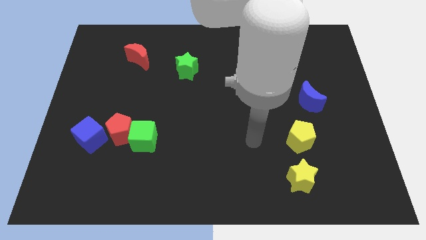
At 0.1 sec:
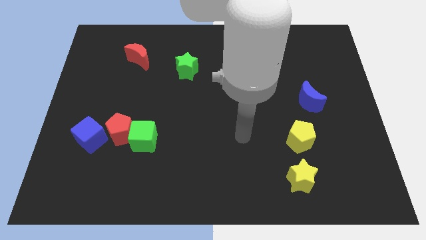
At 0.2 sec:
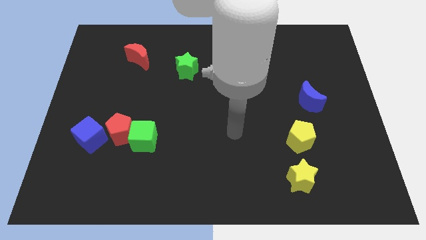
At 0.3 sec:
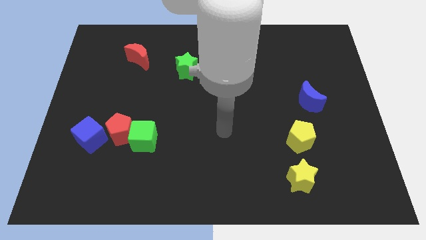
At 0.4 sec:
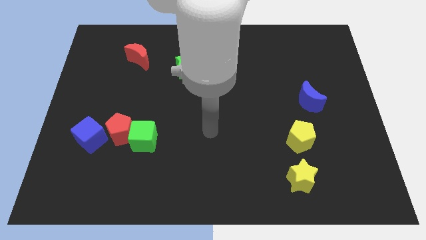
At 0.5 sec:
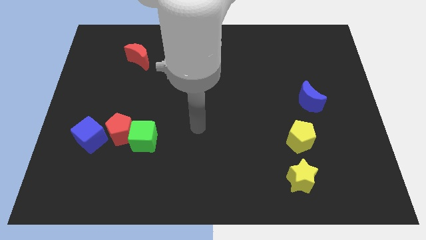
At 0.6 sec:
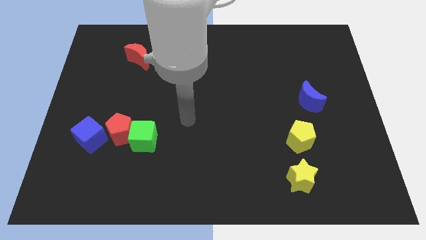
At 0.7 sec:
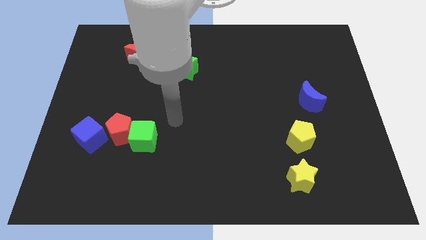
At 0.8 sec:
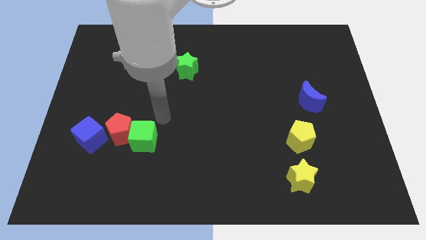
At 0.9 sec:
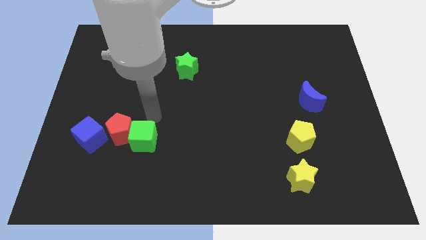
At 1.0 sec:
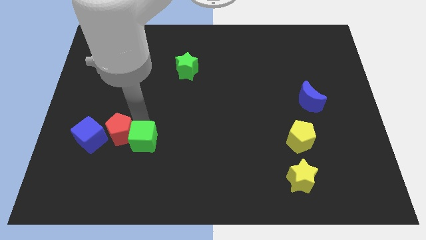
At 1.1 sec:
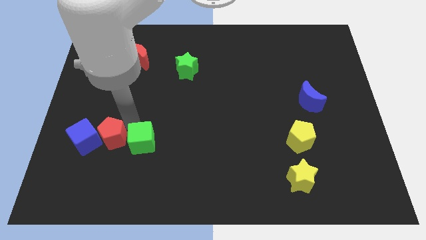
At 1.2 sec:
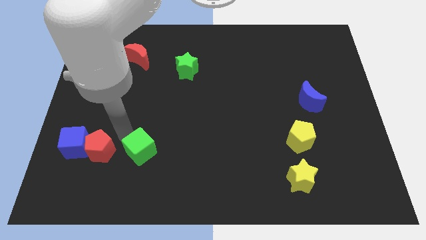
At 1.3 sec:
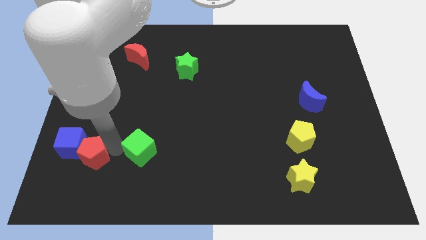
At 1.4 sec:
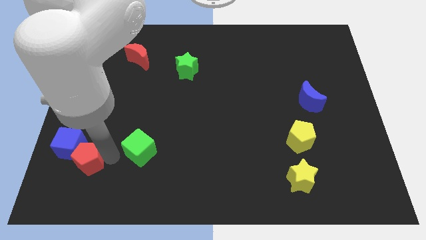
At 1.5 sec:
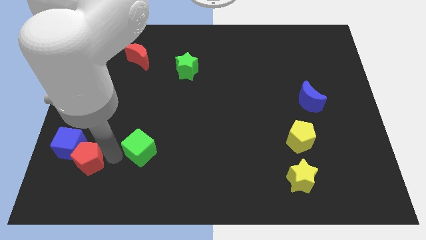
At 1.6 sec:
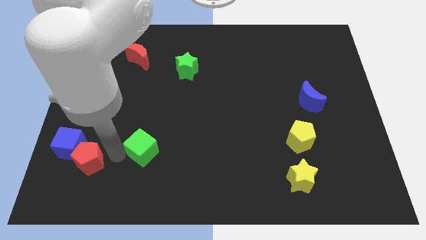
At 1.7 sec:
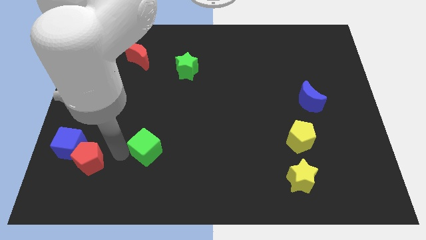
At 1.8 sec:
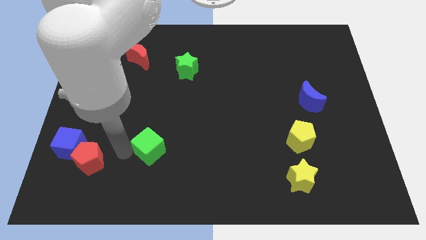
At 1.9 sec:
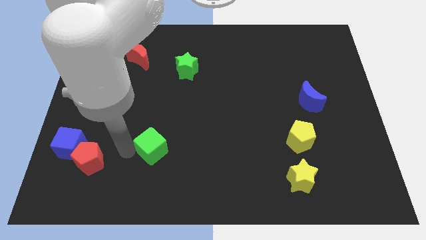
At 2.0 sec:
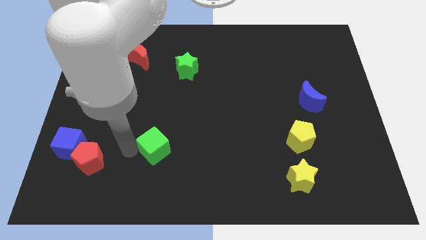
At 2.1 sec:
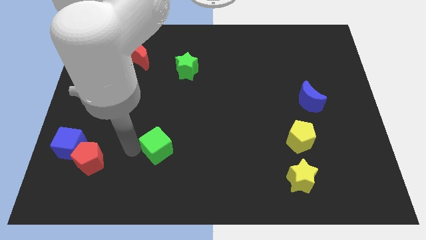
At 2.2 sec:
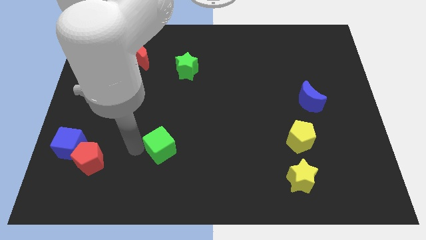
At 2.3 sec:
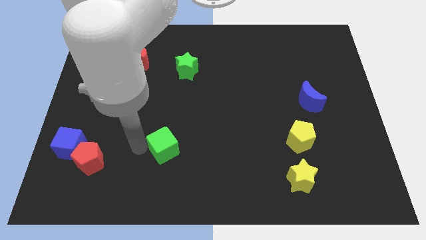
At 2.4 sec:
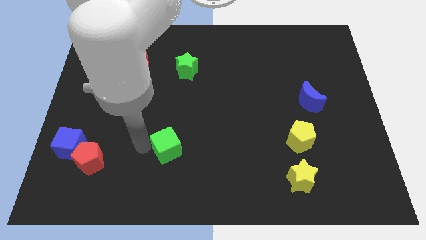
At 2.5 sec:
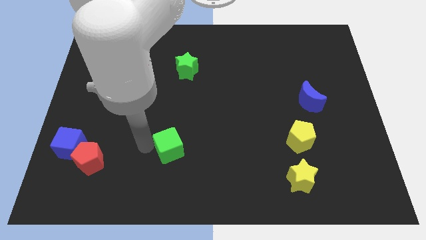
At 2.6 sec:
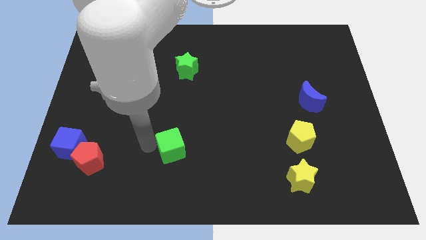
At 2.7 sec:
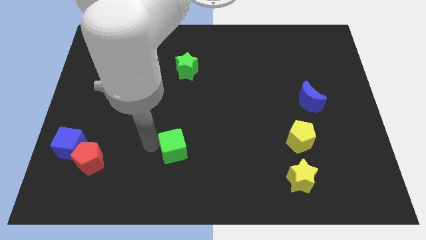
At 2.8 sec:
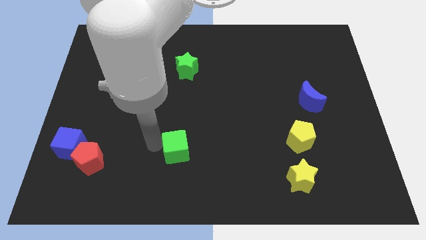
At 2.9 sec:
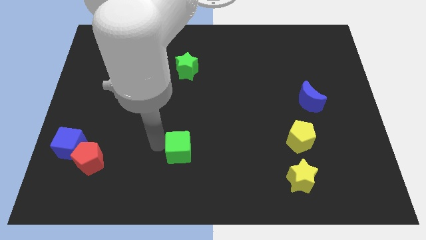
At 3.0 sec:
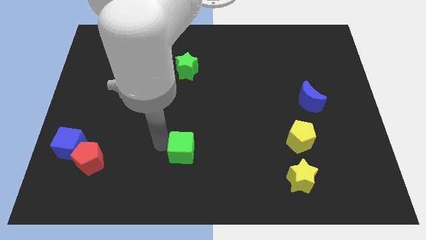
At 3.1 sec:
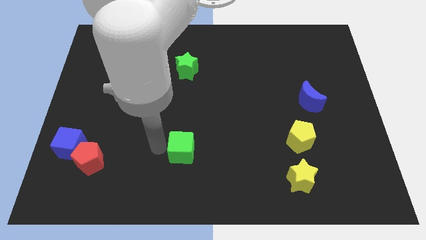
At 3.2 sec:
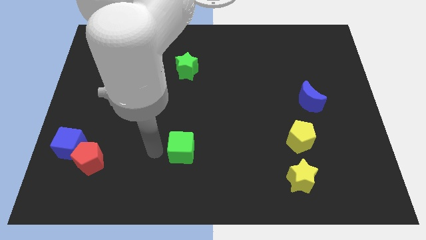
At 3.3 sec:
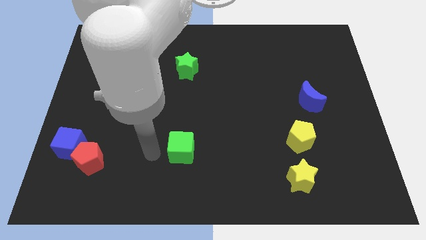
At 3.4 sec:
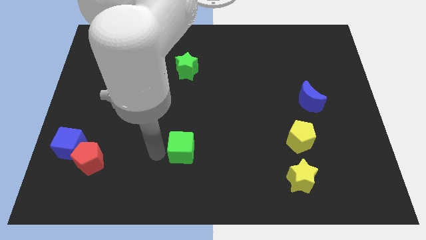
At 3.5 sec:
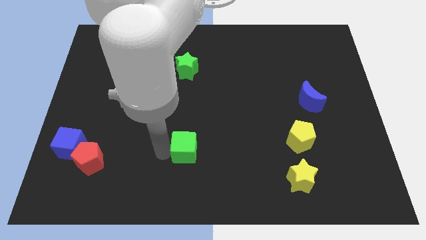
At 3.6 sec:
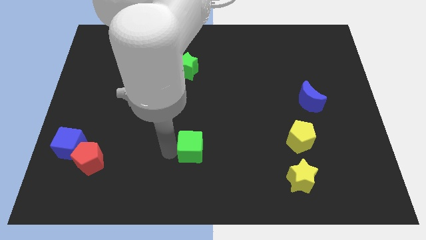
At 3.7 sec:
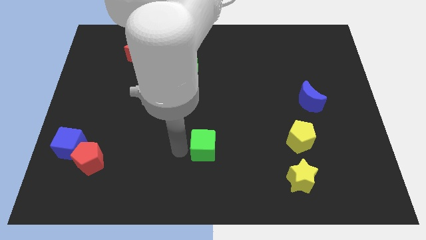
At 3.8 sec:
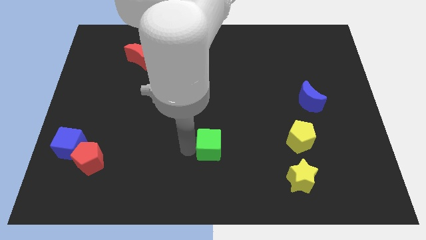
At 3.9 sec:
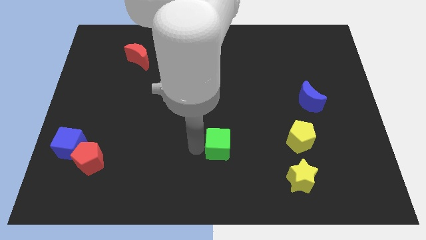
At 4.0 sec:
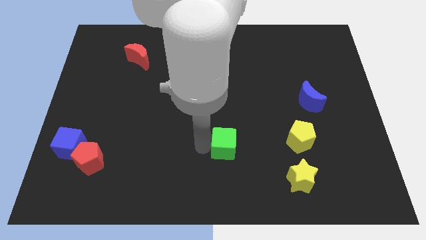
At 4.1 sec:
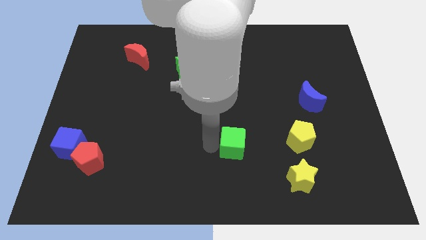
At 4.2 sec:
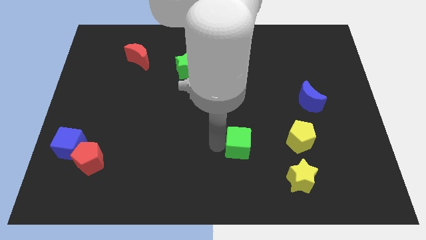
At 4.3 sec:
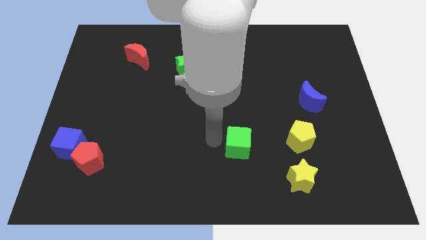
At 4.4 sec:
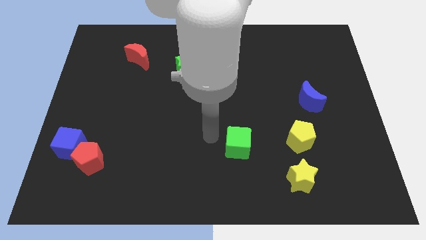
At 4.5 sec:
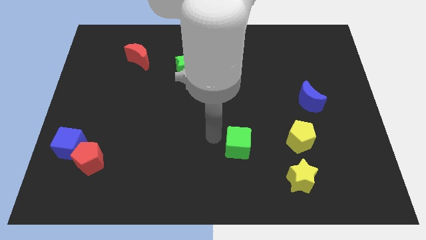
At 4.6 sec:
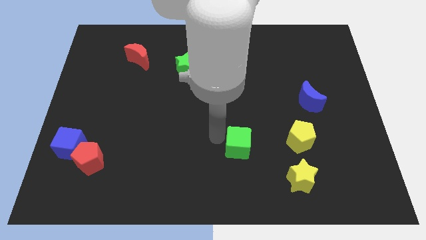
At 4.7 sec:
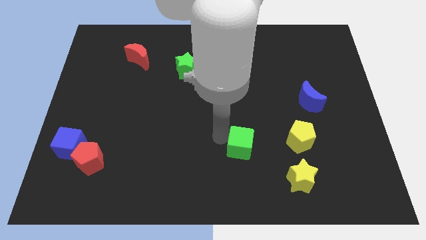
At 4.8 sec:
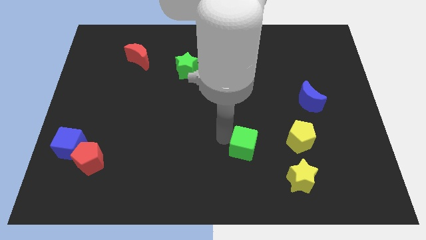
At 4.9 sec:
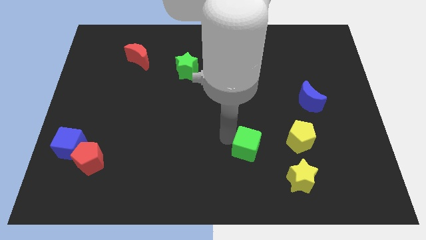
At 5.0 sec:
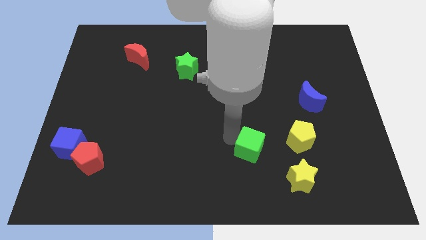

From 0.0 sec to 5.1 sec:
put the green cube to the top left of the yellow star

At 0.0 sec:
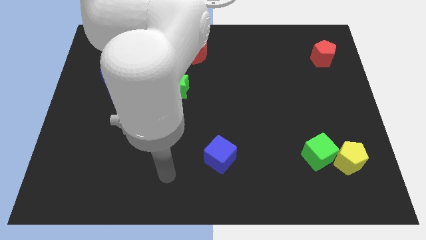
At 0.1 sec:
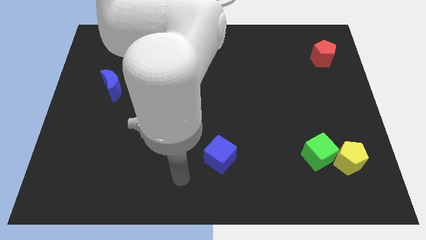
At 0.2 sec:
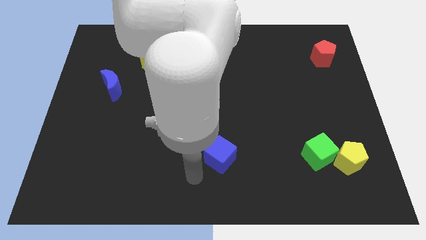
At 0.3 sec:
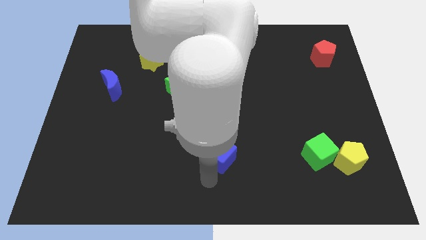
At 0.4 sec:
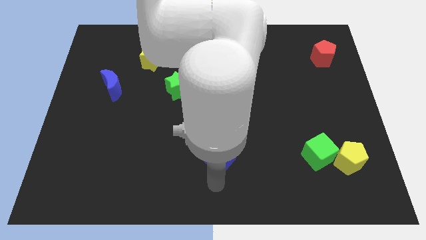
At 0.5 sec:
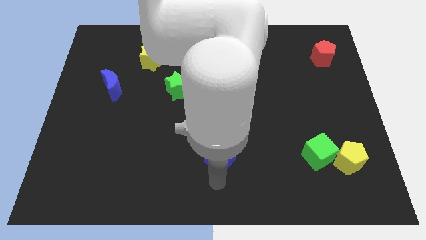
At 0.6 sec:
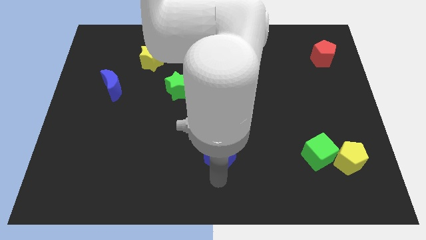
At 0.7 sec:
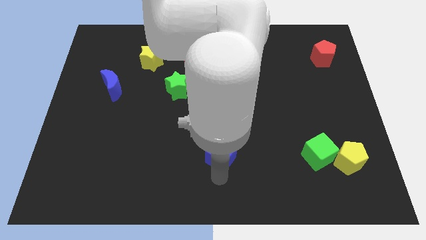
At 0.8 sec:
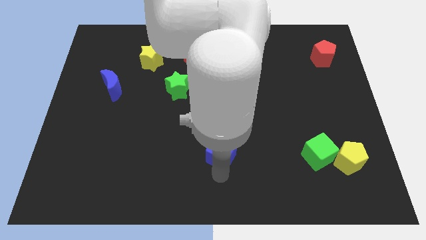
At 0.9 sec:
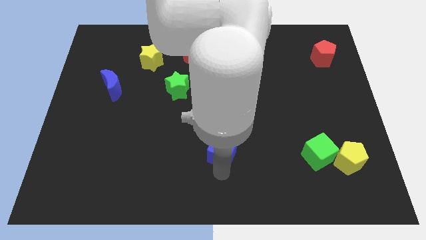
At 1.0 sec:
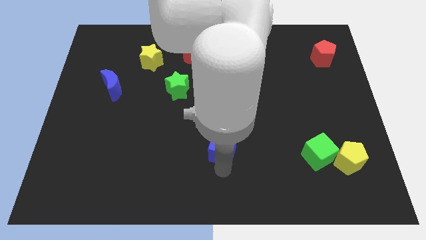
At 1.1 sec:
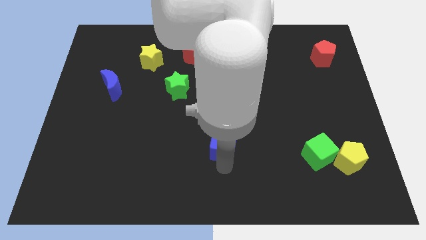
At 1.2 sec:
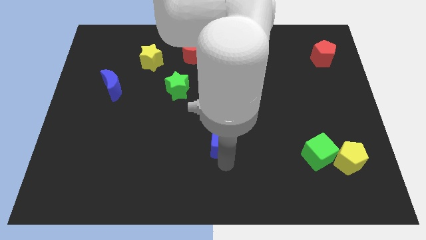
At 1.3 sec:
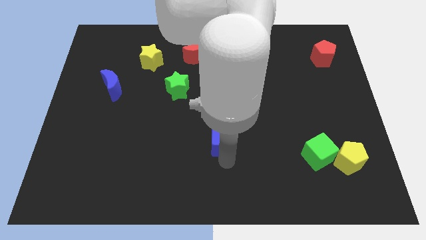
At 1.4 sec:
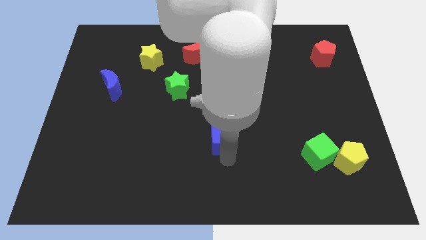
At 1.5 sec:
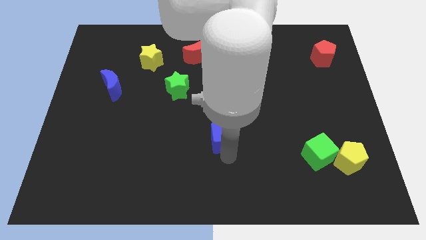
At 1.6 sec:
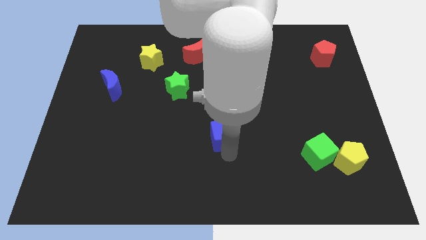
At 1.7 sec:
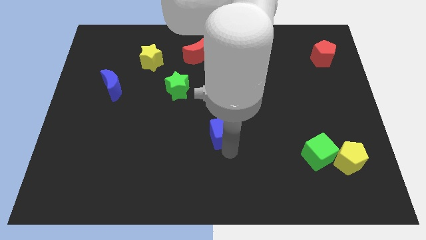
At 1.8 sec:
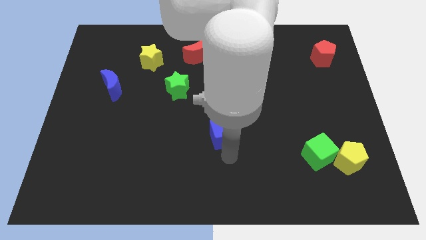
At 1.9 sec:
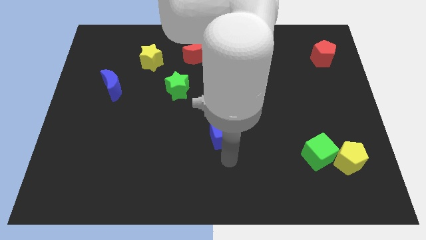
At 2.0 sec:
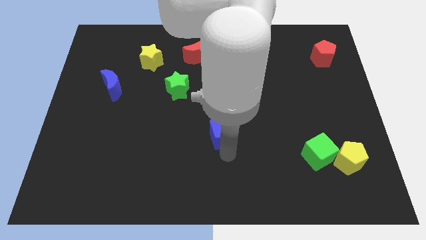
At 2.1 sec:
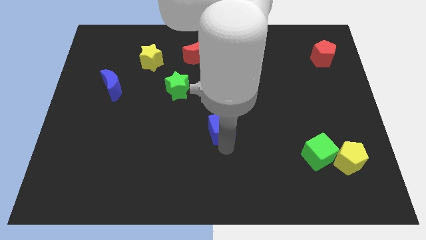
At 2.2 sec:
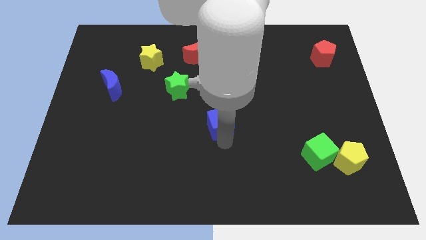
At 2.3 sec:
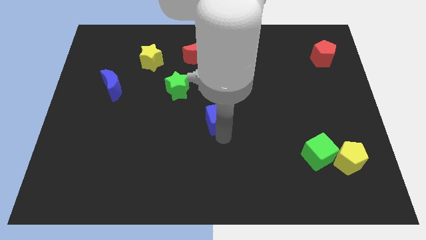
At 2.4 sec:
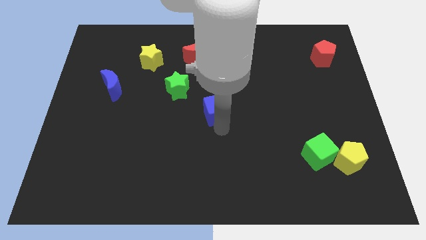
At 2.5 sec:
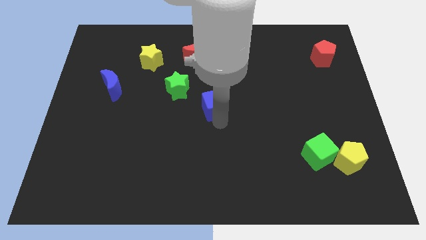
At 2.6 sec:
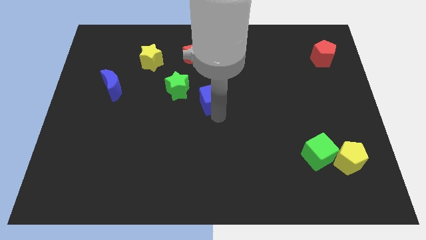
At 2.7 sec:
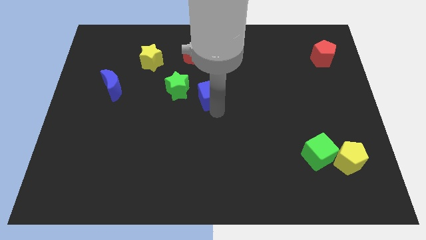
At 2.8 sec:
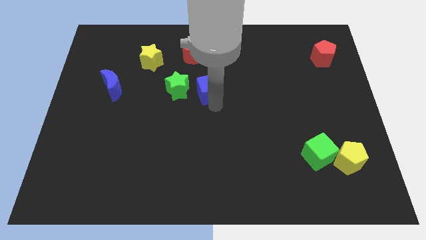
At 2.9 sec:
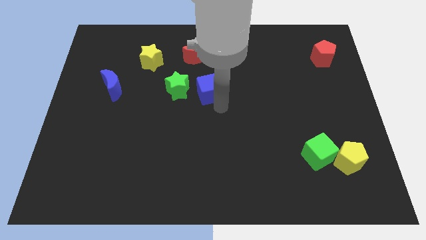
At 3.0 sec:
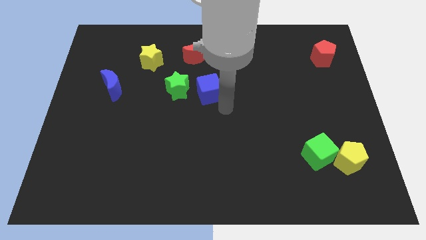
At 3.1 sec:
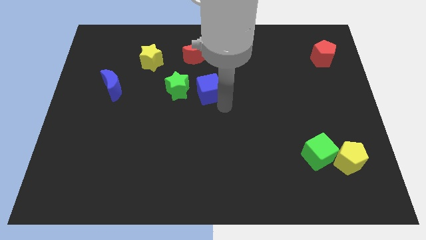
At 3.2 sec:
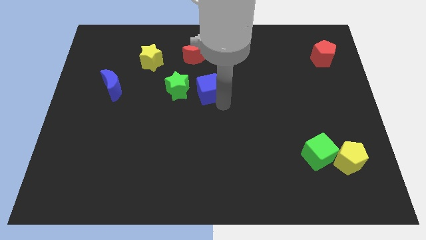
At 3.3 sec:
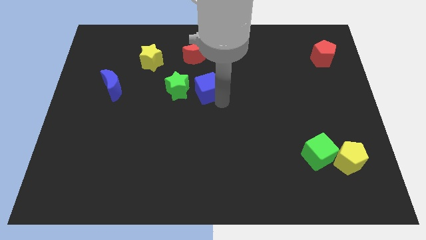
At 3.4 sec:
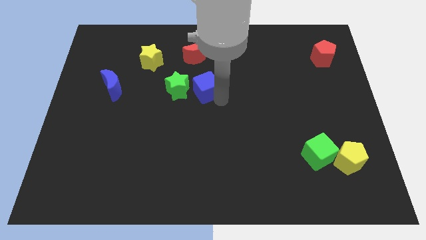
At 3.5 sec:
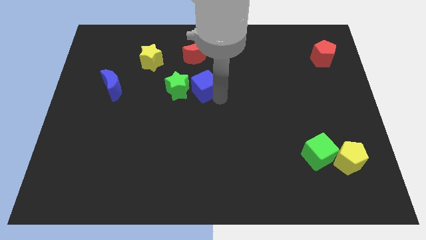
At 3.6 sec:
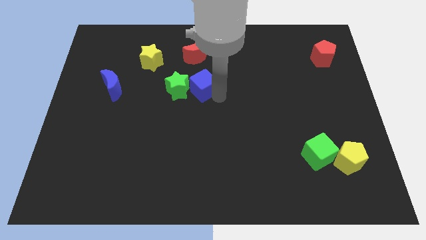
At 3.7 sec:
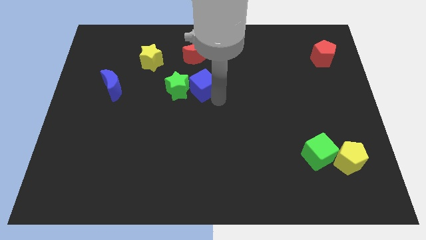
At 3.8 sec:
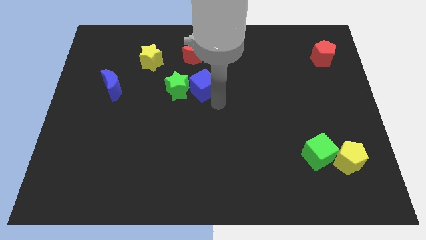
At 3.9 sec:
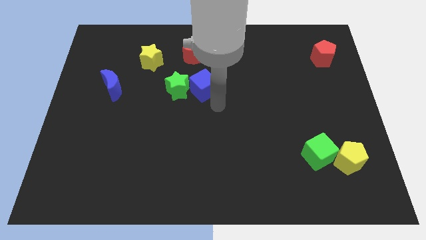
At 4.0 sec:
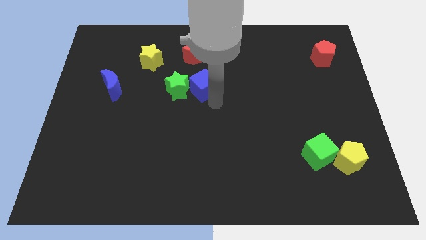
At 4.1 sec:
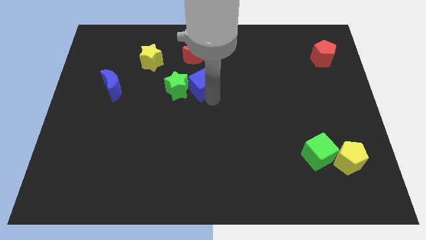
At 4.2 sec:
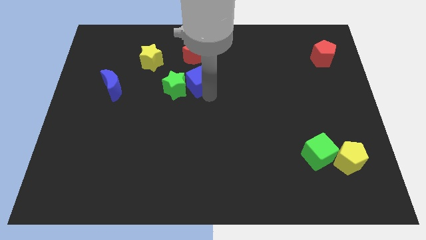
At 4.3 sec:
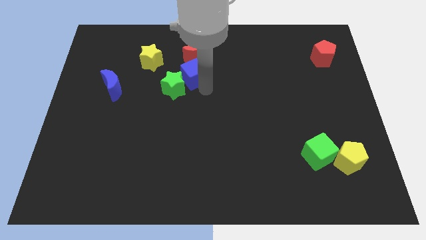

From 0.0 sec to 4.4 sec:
put the blue cube to the bottom left of the red moon
